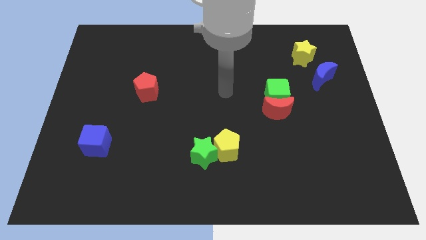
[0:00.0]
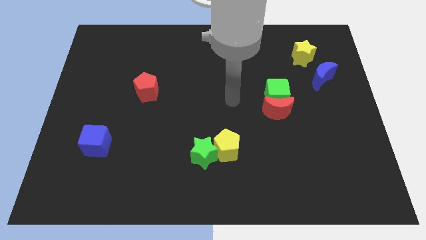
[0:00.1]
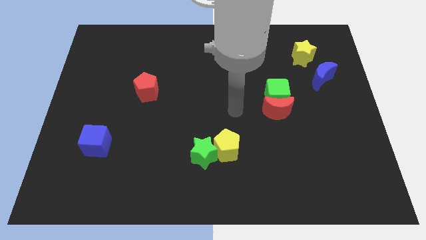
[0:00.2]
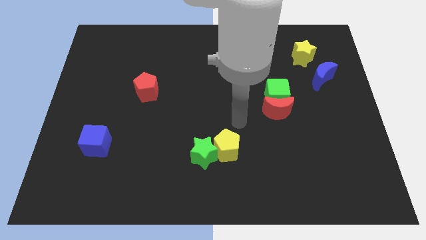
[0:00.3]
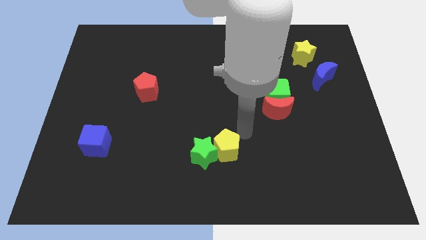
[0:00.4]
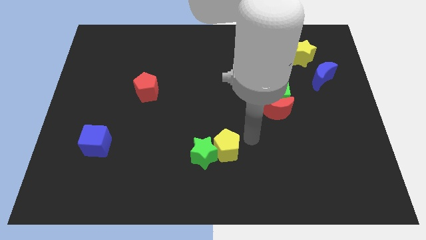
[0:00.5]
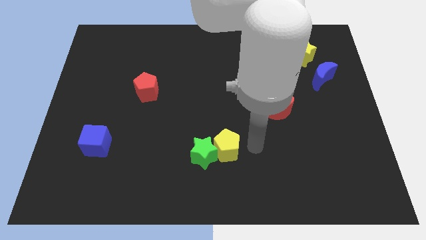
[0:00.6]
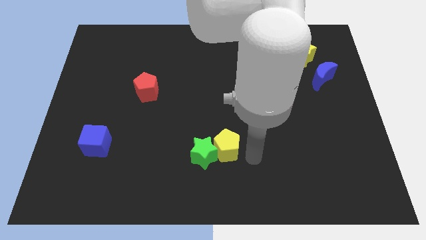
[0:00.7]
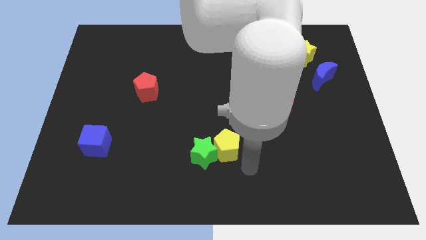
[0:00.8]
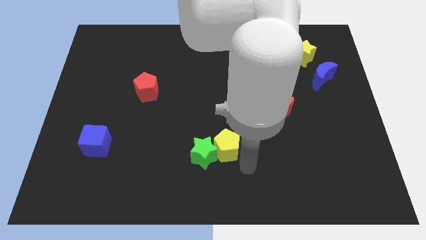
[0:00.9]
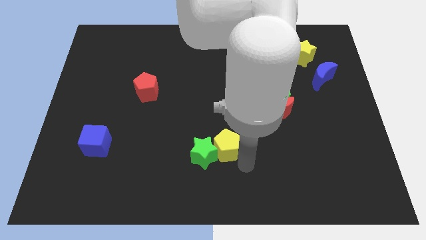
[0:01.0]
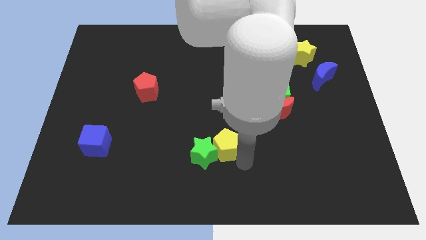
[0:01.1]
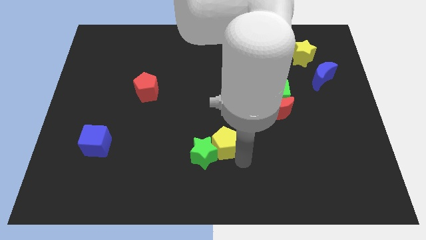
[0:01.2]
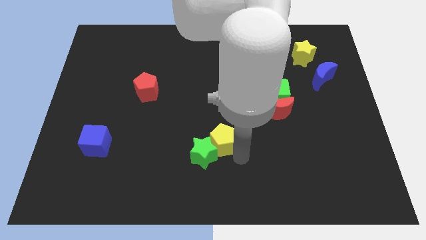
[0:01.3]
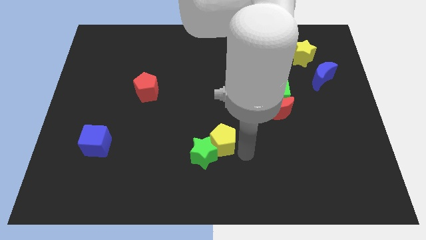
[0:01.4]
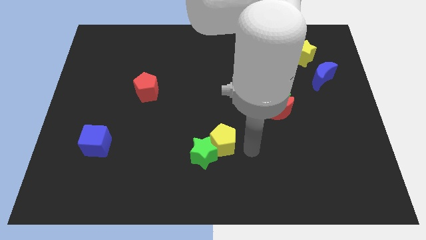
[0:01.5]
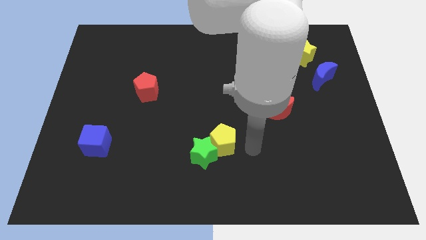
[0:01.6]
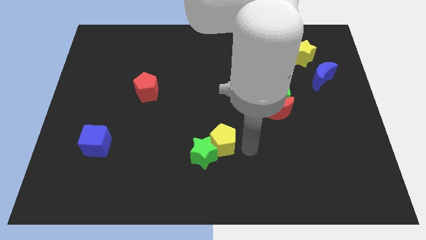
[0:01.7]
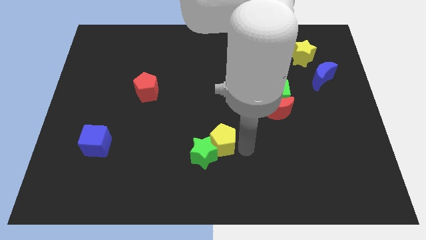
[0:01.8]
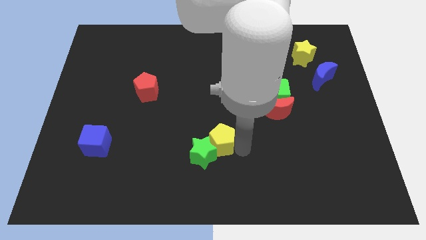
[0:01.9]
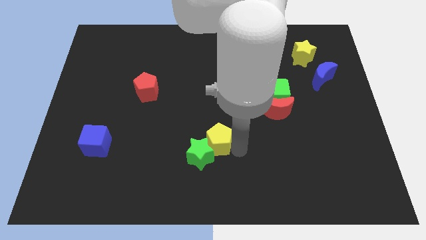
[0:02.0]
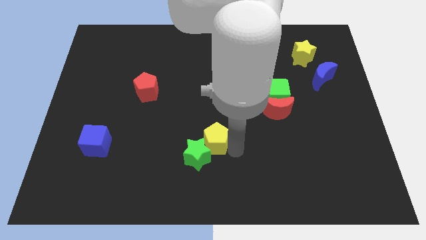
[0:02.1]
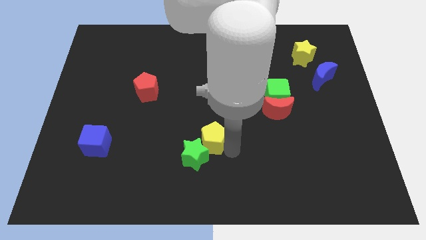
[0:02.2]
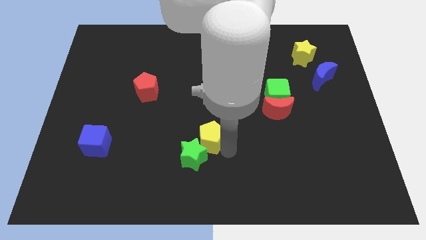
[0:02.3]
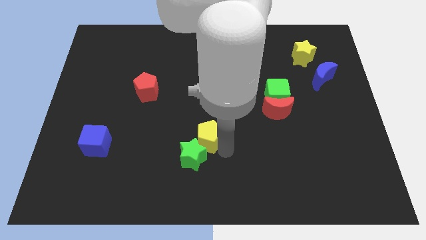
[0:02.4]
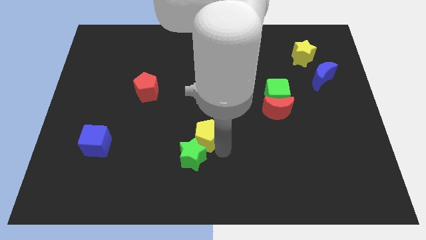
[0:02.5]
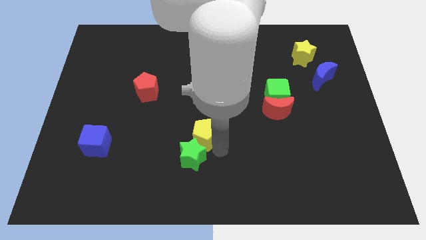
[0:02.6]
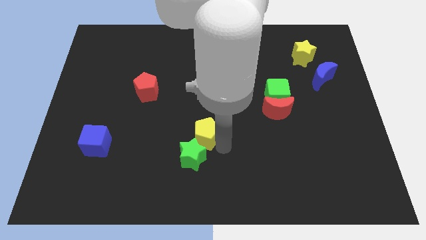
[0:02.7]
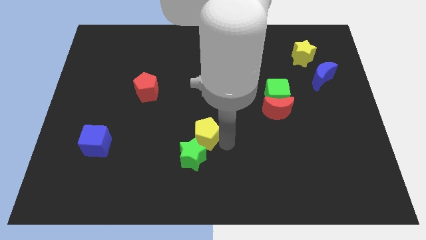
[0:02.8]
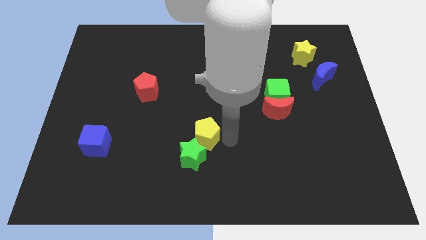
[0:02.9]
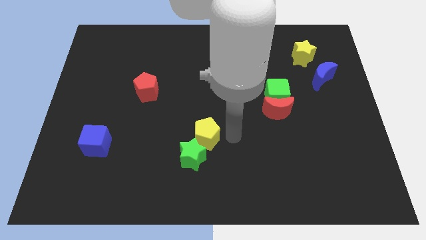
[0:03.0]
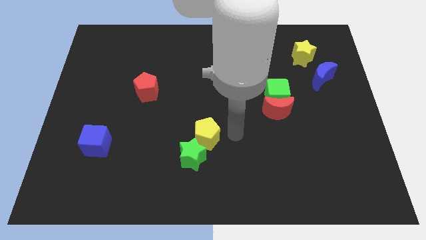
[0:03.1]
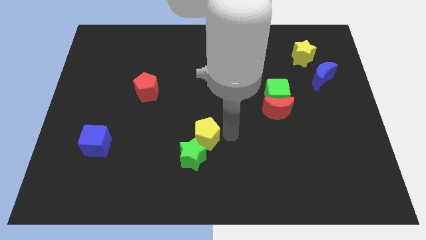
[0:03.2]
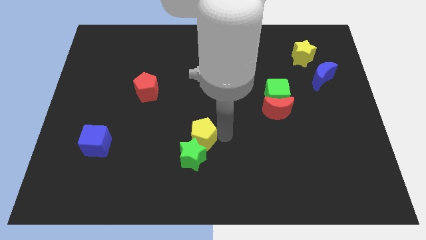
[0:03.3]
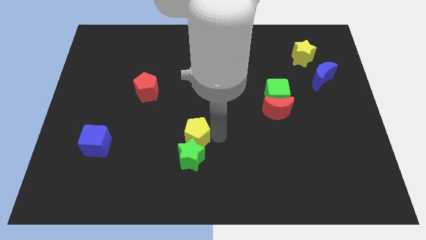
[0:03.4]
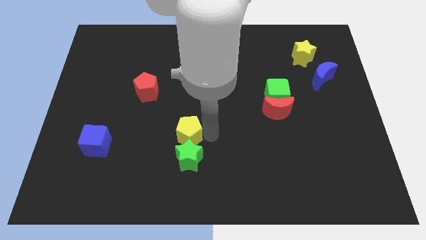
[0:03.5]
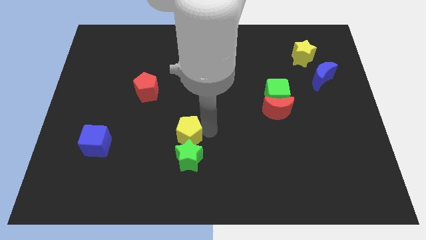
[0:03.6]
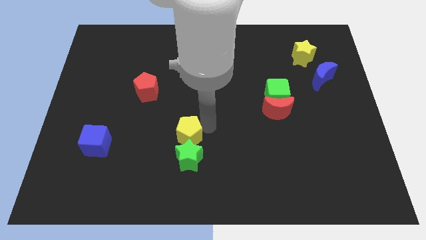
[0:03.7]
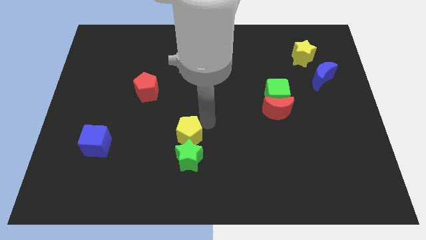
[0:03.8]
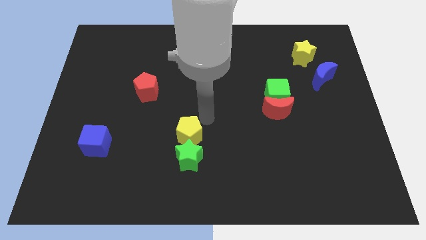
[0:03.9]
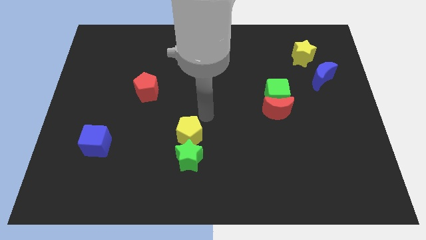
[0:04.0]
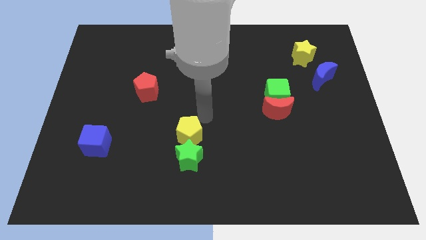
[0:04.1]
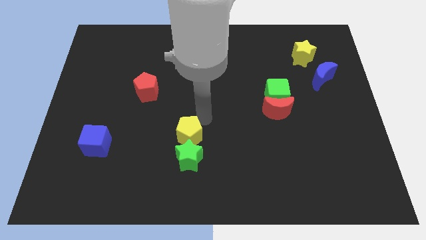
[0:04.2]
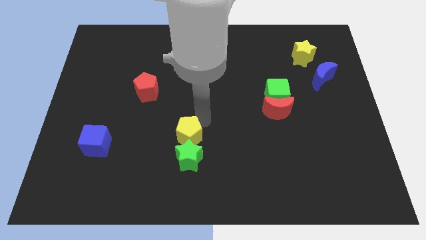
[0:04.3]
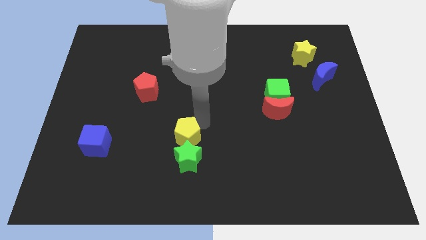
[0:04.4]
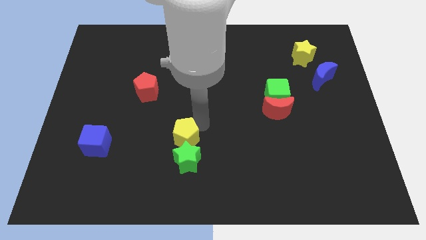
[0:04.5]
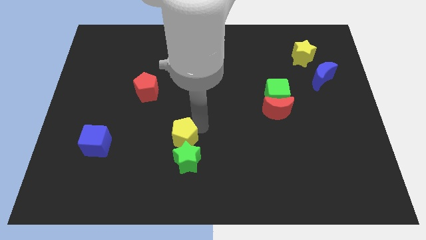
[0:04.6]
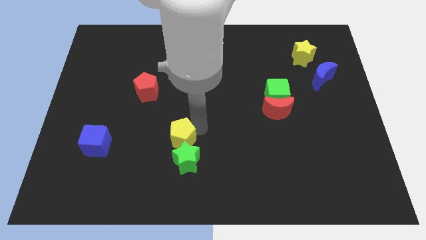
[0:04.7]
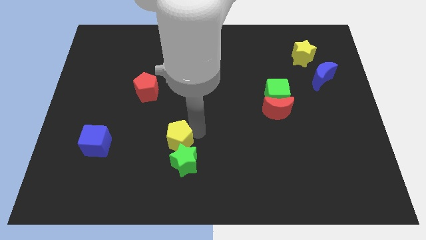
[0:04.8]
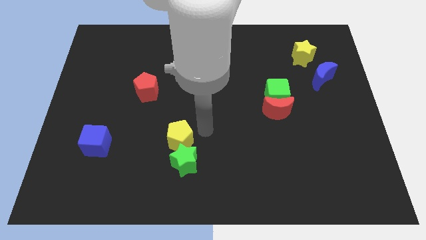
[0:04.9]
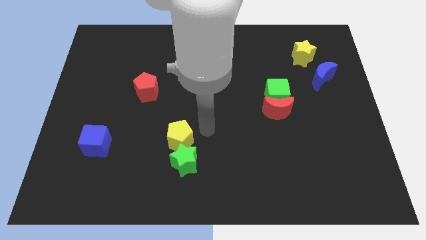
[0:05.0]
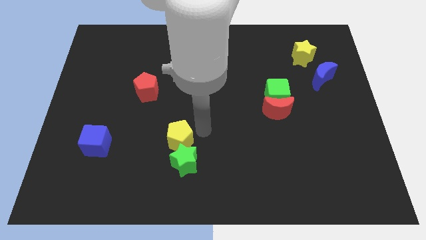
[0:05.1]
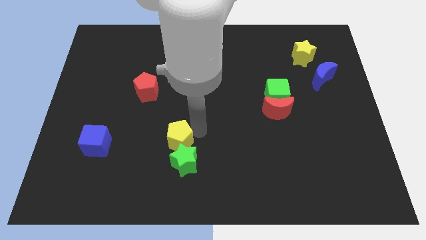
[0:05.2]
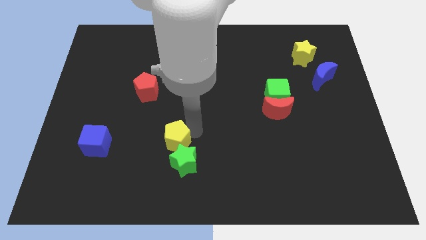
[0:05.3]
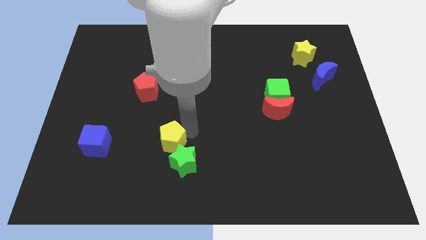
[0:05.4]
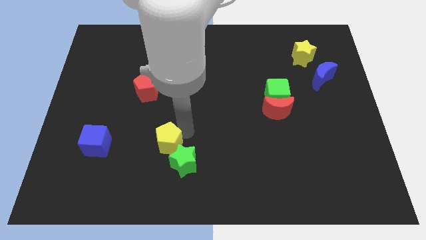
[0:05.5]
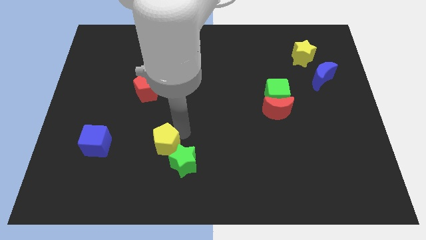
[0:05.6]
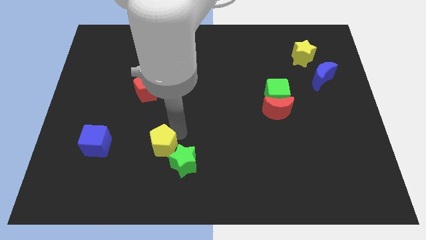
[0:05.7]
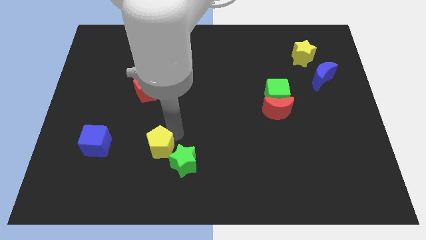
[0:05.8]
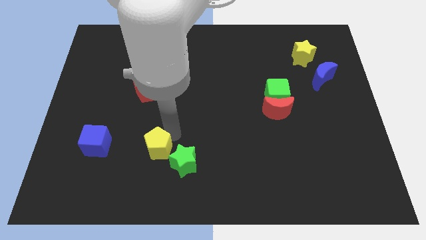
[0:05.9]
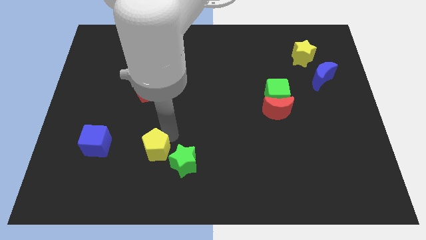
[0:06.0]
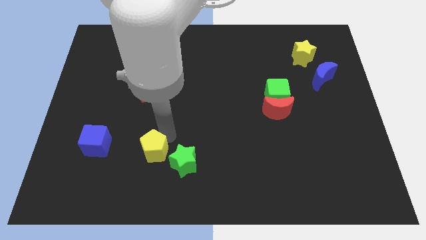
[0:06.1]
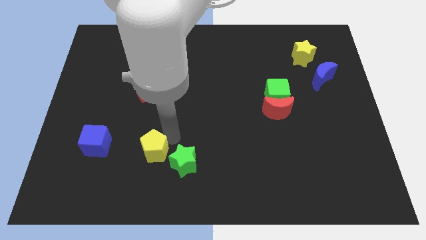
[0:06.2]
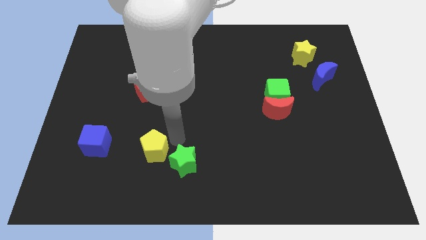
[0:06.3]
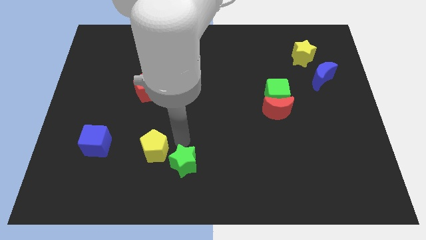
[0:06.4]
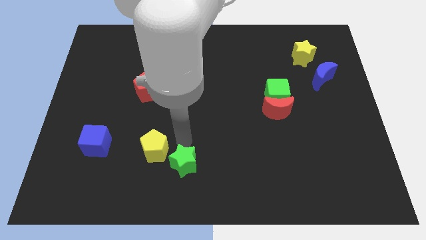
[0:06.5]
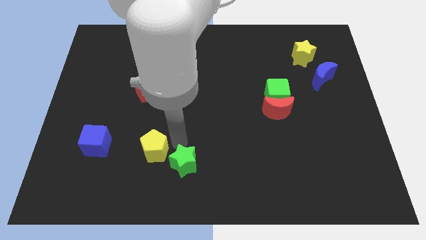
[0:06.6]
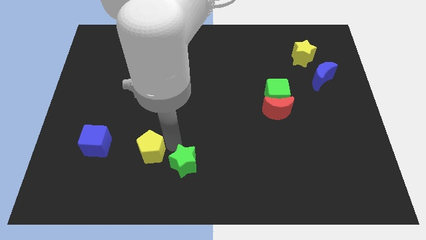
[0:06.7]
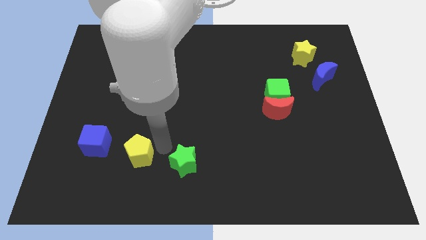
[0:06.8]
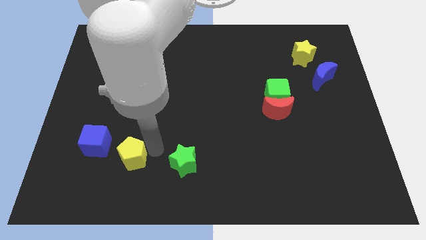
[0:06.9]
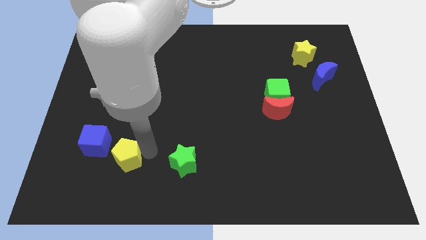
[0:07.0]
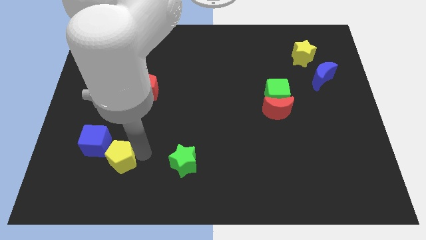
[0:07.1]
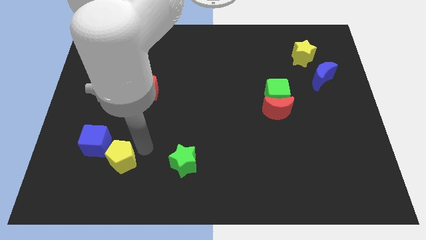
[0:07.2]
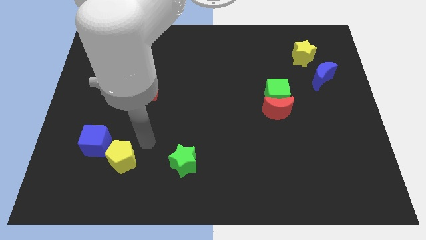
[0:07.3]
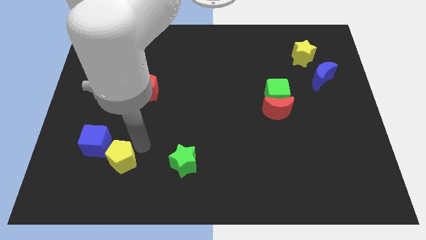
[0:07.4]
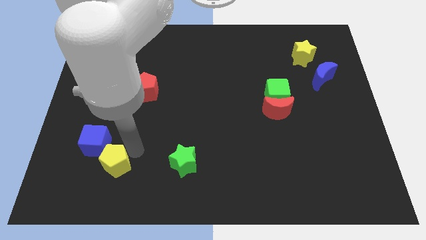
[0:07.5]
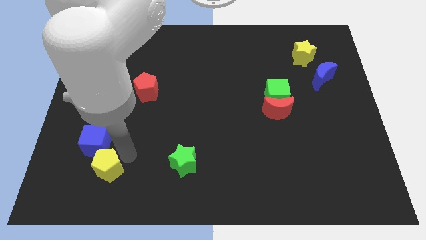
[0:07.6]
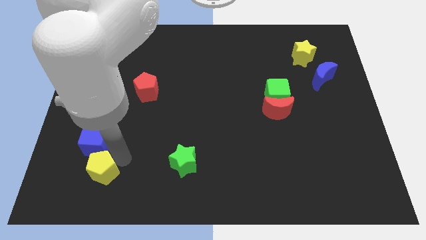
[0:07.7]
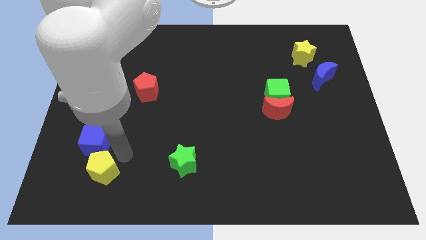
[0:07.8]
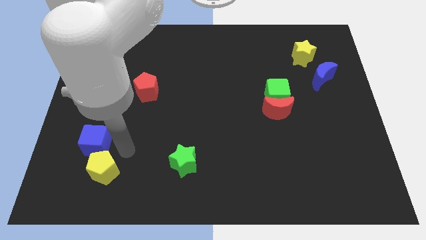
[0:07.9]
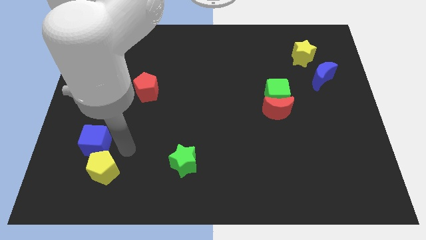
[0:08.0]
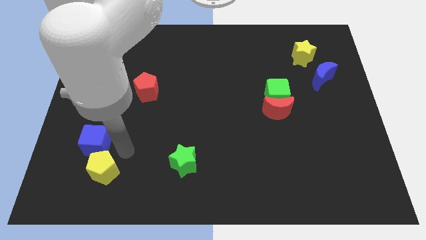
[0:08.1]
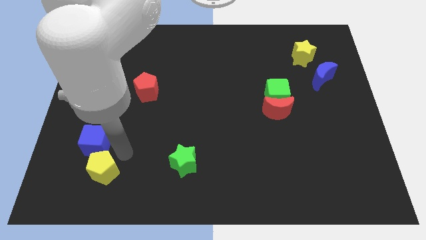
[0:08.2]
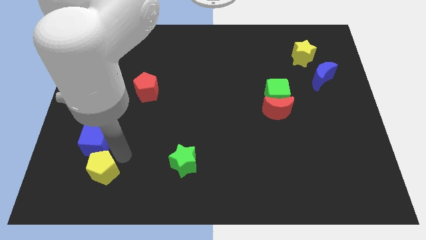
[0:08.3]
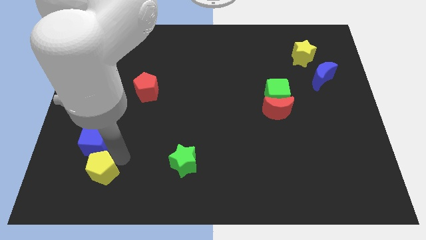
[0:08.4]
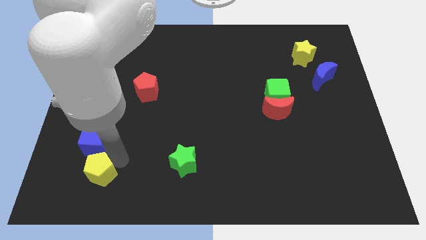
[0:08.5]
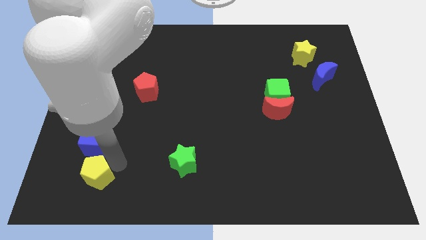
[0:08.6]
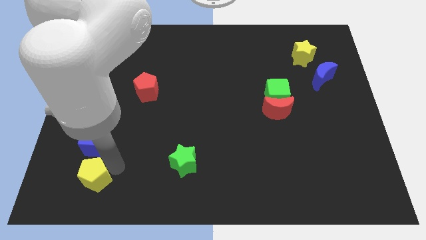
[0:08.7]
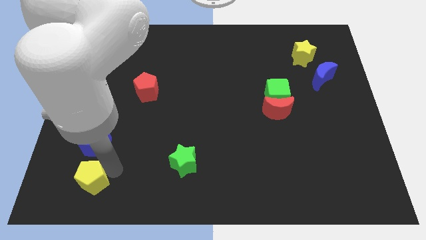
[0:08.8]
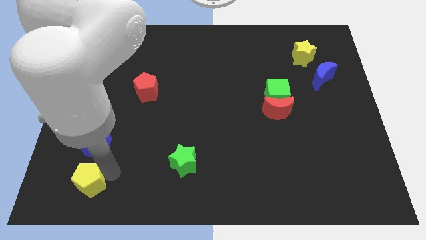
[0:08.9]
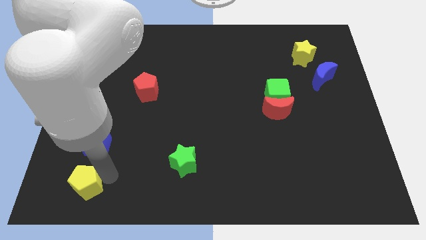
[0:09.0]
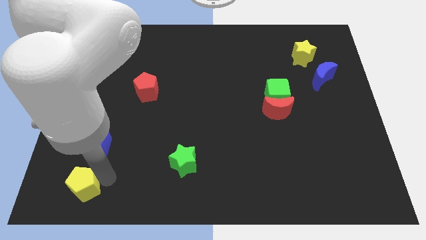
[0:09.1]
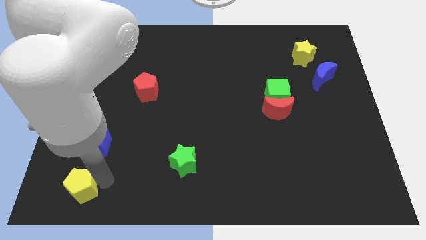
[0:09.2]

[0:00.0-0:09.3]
slide the yellow pentagon to the bottom left of the board
